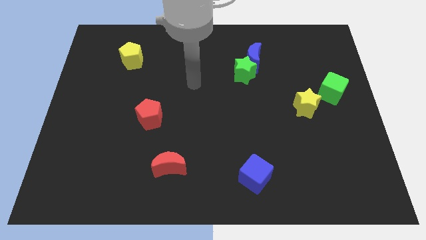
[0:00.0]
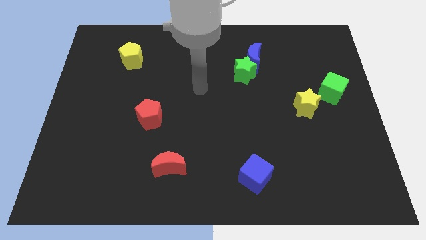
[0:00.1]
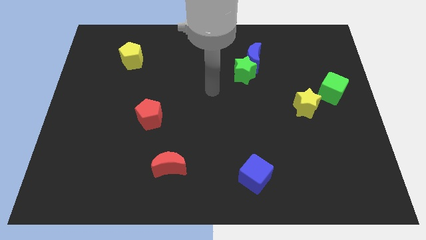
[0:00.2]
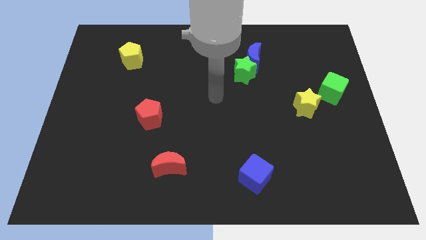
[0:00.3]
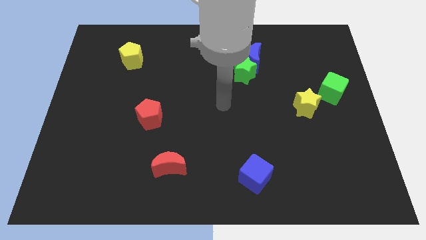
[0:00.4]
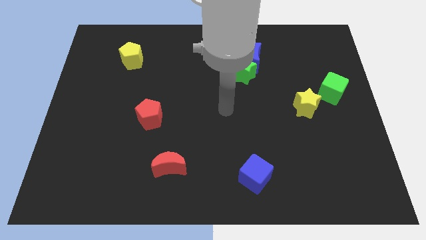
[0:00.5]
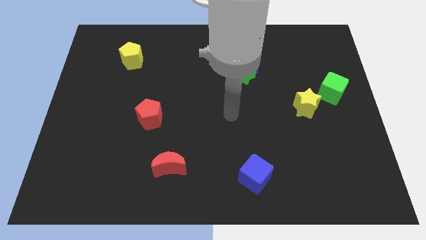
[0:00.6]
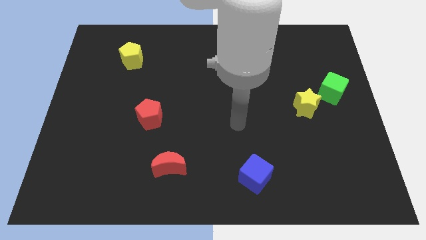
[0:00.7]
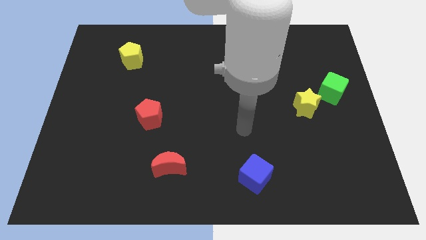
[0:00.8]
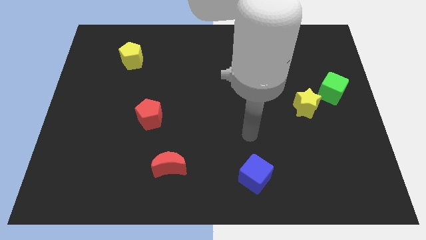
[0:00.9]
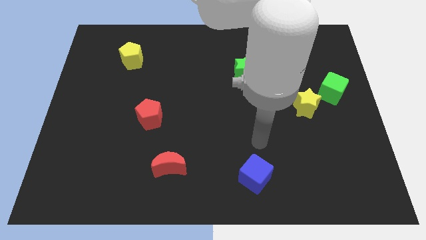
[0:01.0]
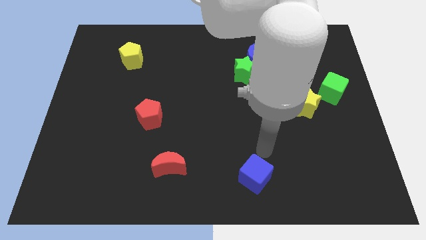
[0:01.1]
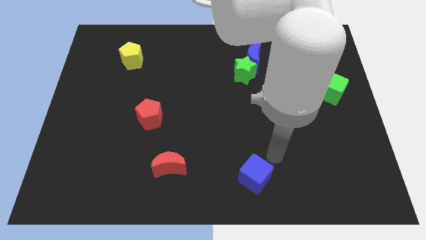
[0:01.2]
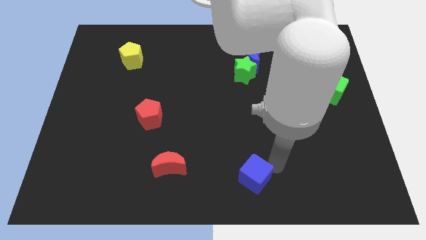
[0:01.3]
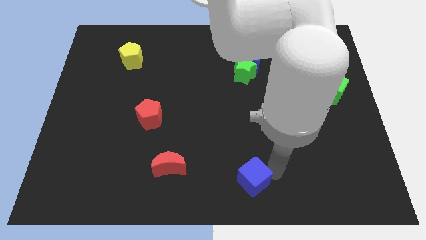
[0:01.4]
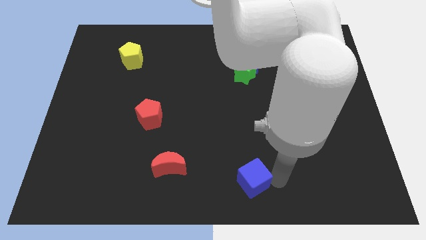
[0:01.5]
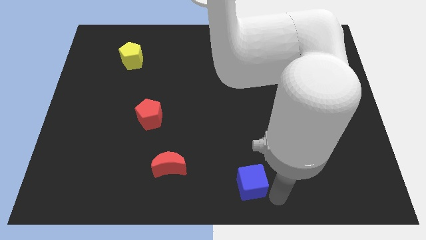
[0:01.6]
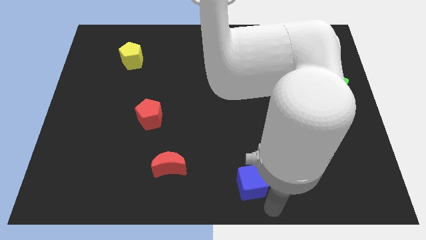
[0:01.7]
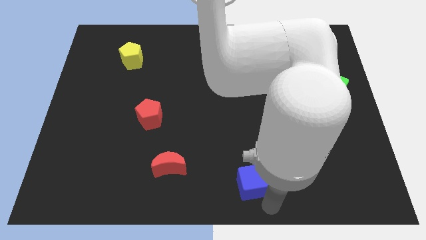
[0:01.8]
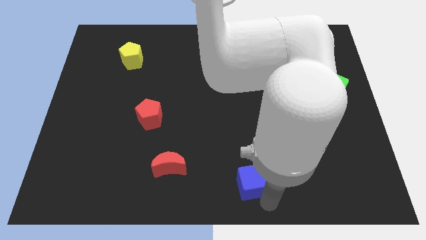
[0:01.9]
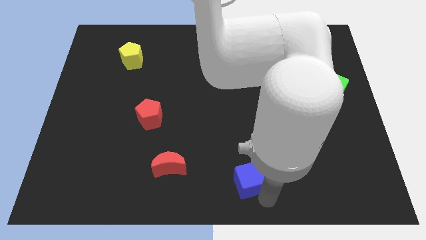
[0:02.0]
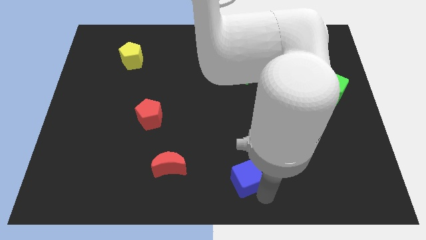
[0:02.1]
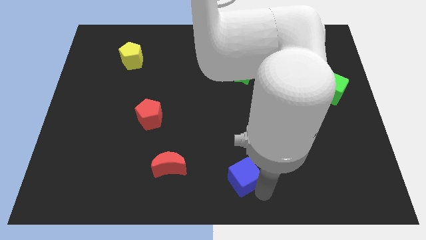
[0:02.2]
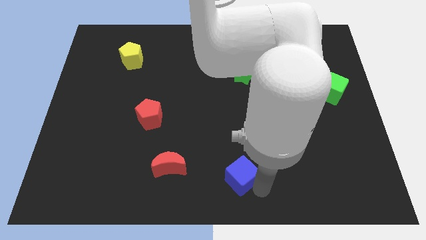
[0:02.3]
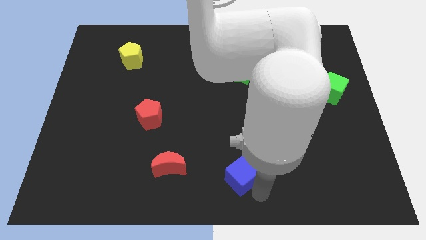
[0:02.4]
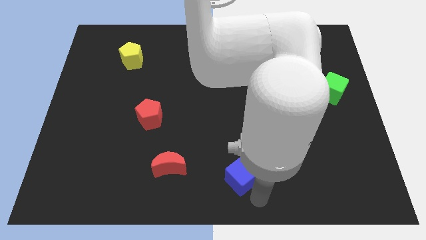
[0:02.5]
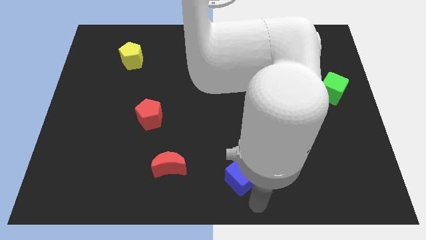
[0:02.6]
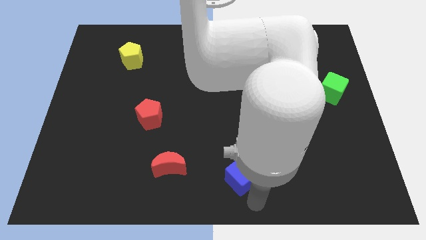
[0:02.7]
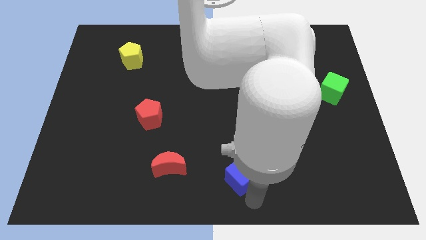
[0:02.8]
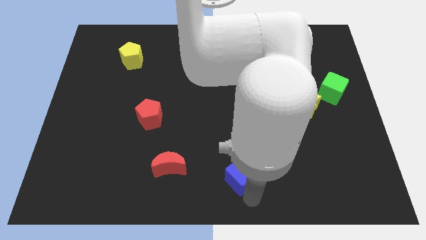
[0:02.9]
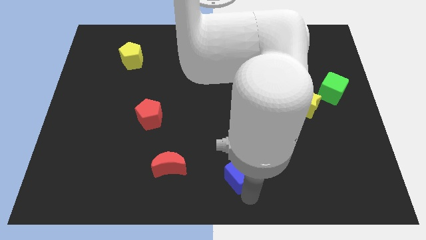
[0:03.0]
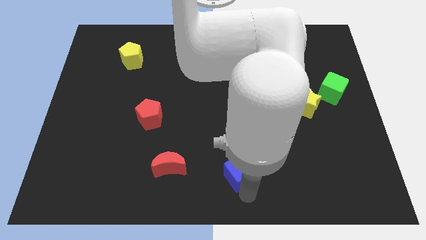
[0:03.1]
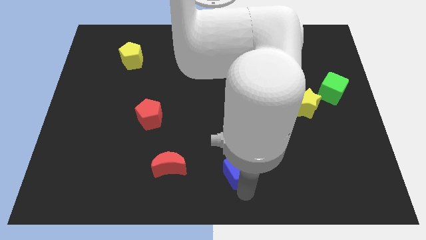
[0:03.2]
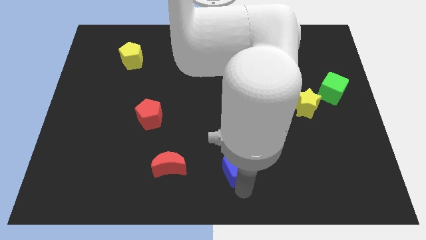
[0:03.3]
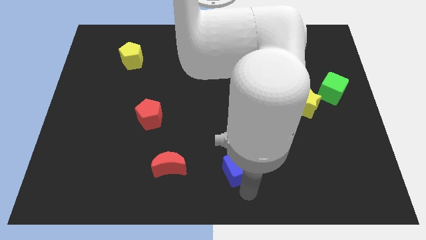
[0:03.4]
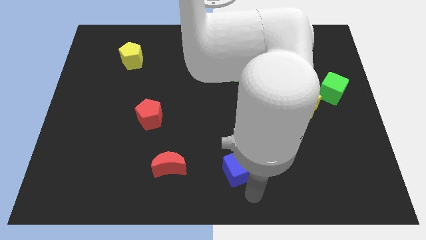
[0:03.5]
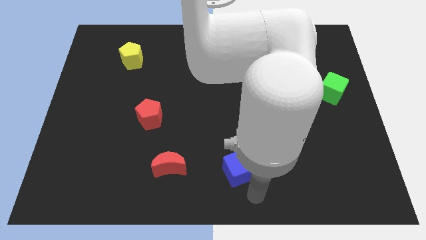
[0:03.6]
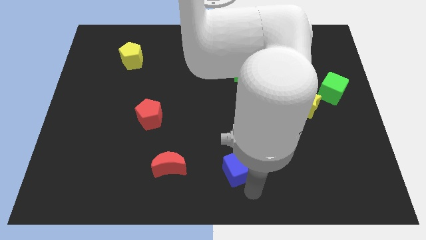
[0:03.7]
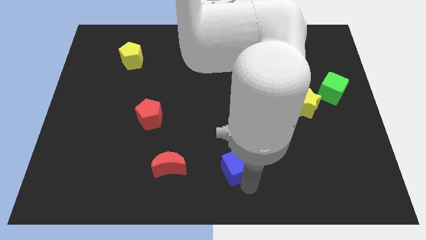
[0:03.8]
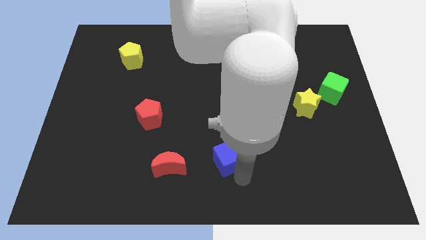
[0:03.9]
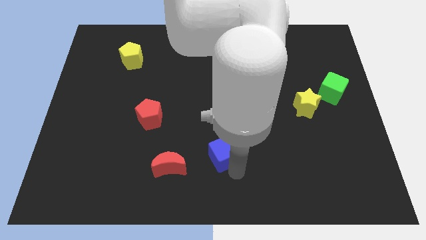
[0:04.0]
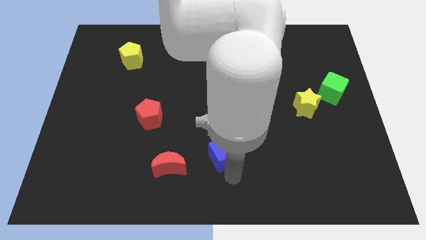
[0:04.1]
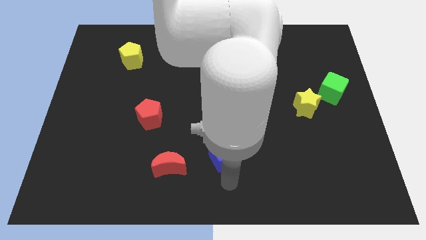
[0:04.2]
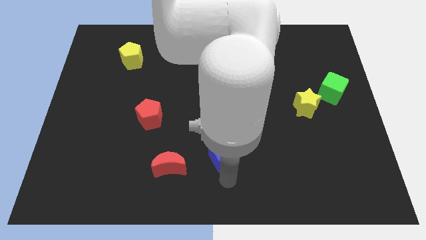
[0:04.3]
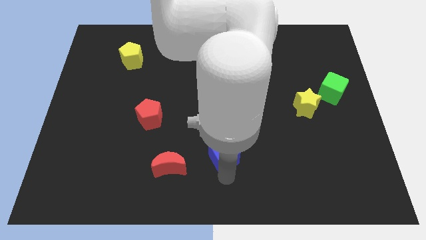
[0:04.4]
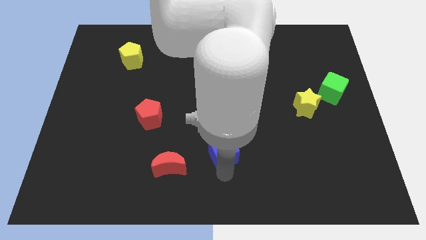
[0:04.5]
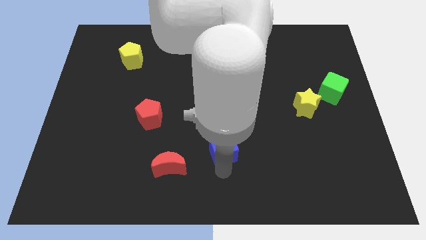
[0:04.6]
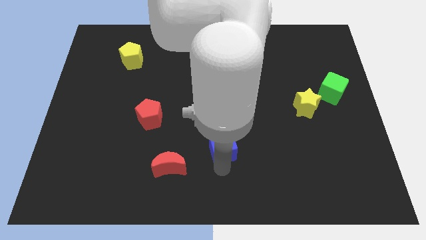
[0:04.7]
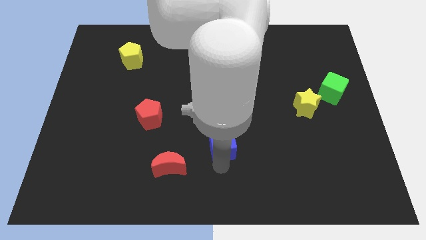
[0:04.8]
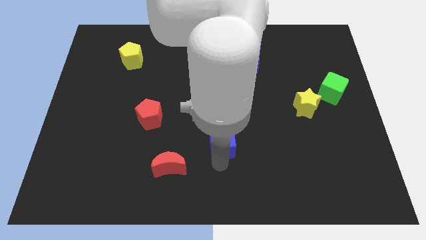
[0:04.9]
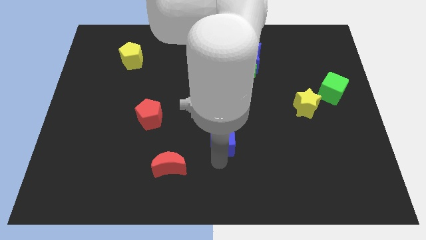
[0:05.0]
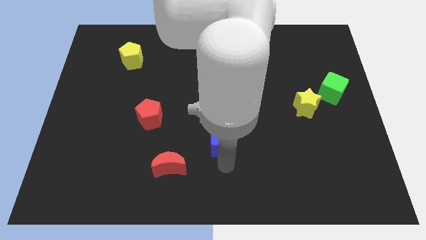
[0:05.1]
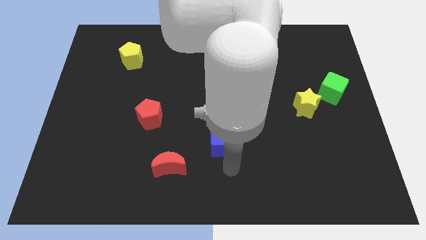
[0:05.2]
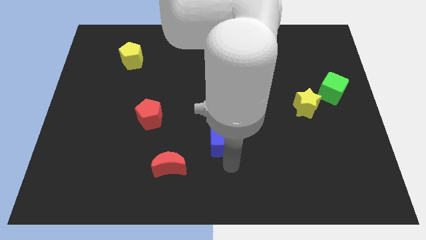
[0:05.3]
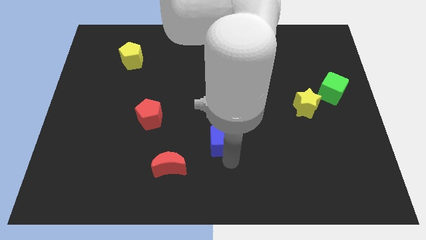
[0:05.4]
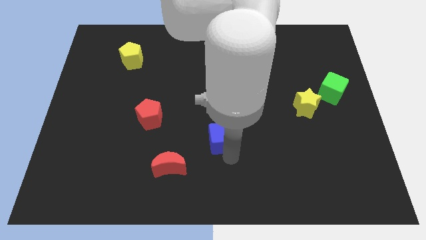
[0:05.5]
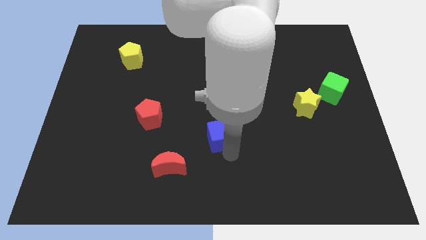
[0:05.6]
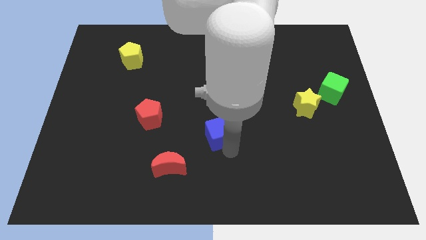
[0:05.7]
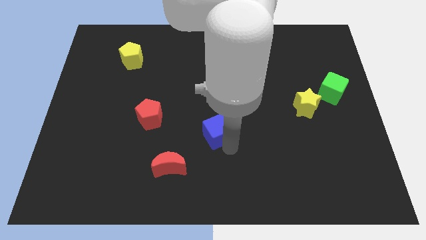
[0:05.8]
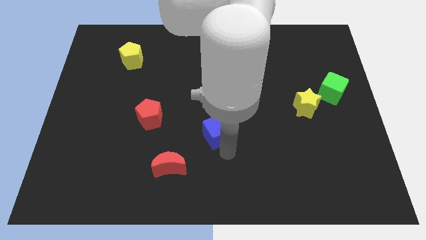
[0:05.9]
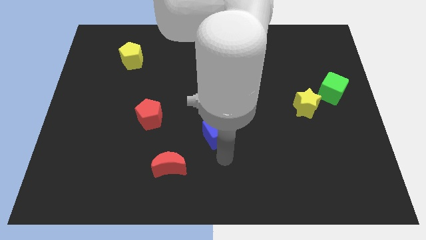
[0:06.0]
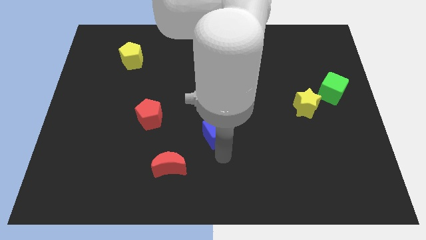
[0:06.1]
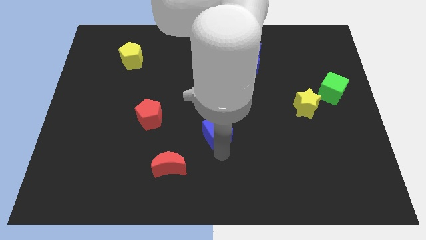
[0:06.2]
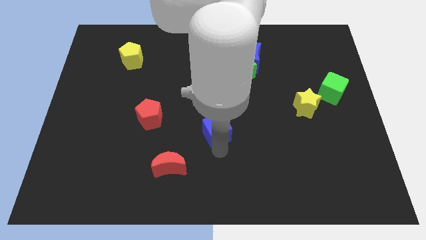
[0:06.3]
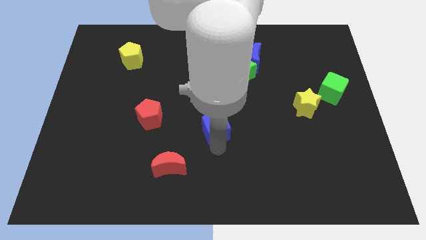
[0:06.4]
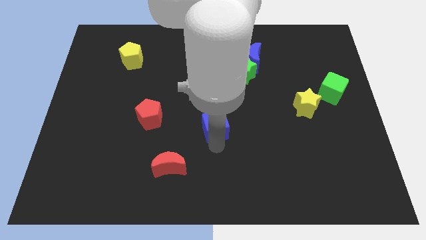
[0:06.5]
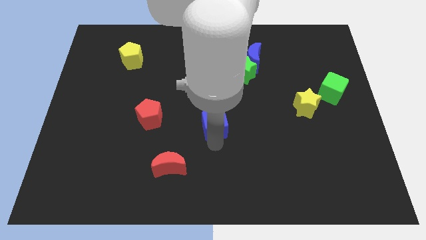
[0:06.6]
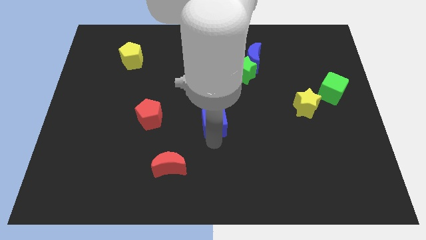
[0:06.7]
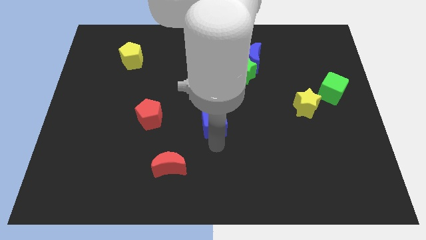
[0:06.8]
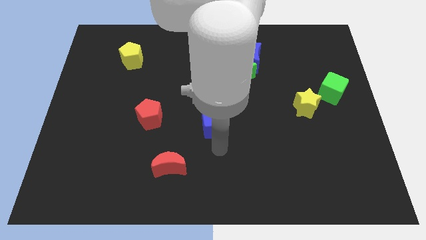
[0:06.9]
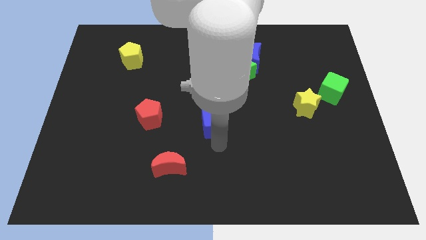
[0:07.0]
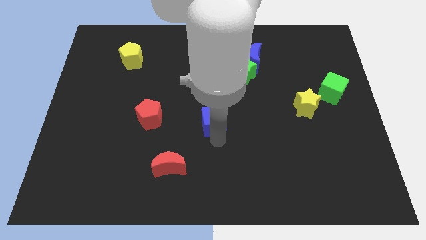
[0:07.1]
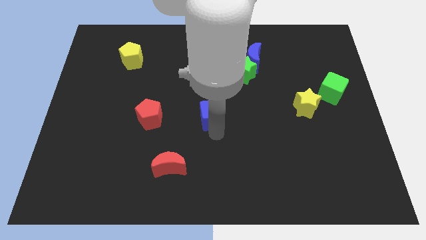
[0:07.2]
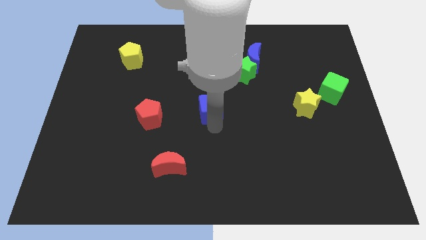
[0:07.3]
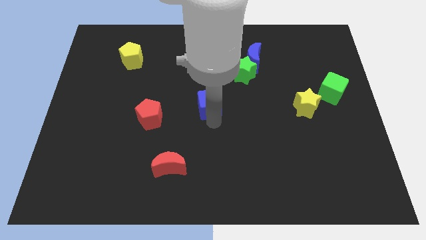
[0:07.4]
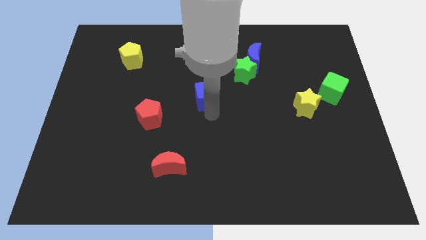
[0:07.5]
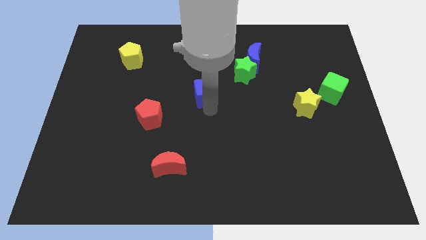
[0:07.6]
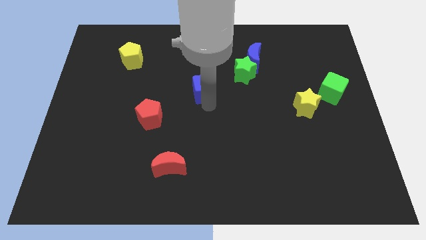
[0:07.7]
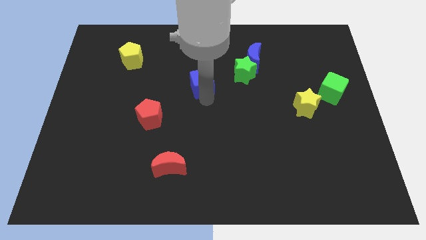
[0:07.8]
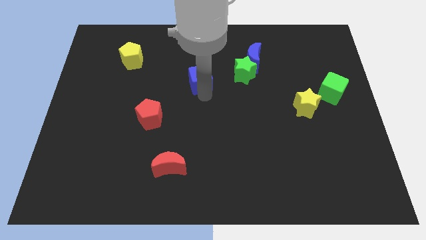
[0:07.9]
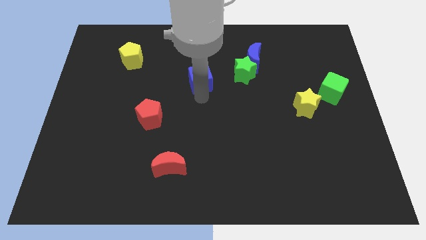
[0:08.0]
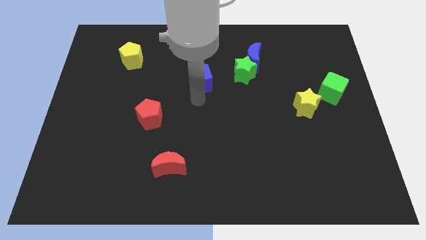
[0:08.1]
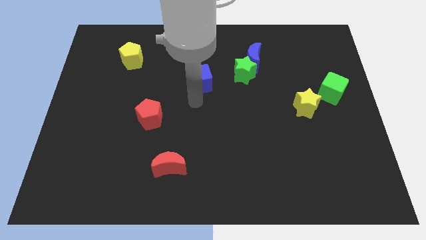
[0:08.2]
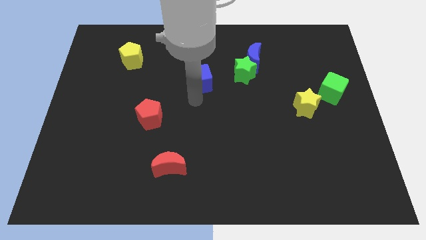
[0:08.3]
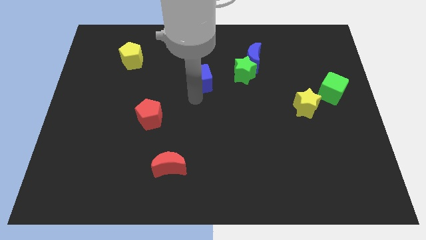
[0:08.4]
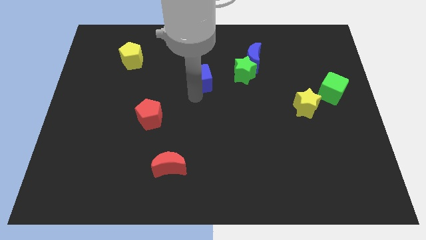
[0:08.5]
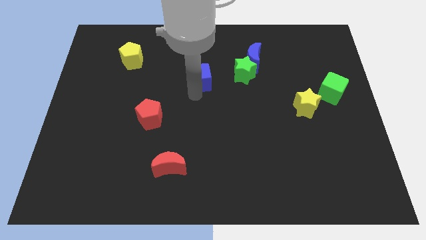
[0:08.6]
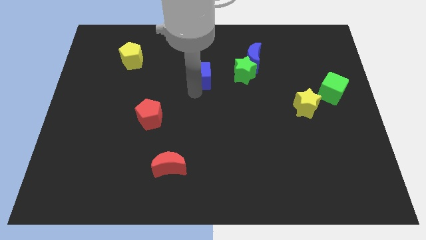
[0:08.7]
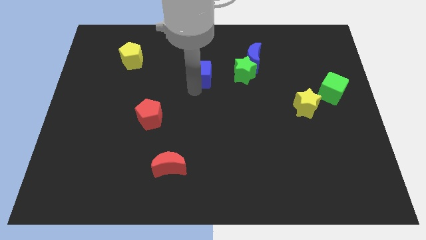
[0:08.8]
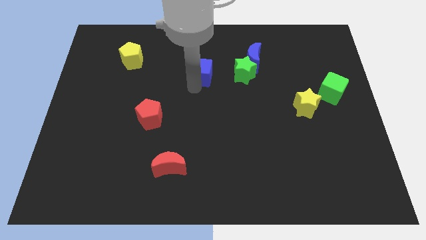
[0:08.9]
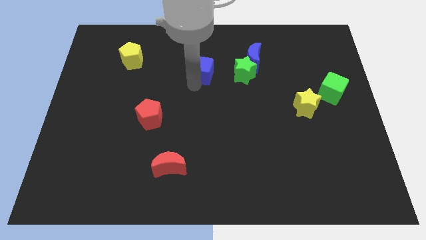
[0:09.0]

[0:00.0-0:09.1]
put the blue cube to the left side of the blue moon
